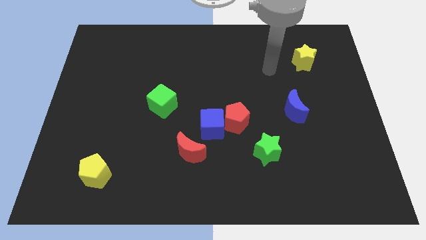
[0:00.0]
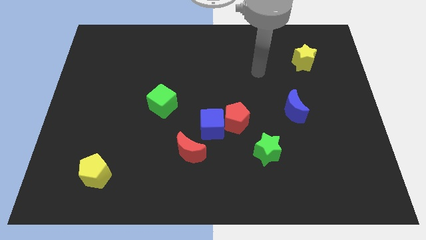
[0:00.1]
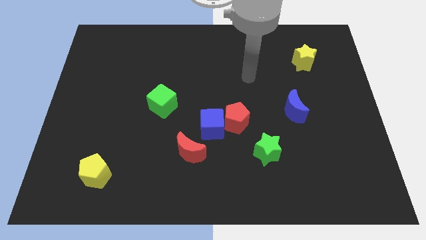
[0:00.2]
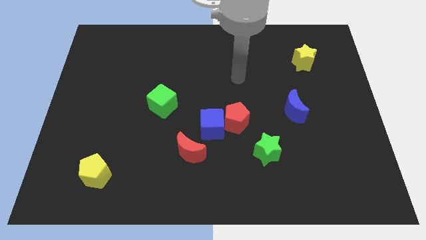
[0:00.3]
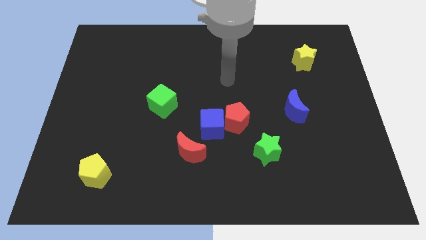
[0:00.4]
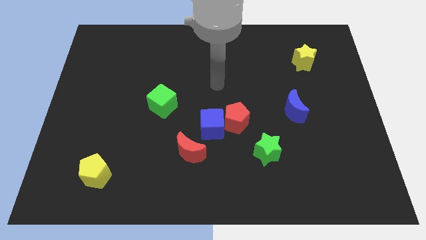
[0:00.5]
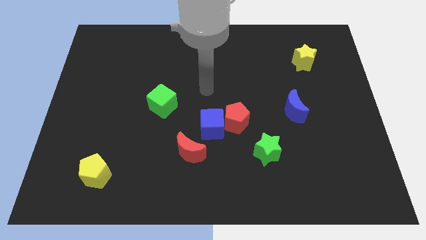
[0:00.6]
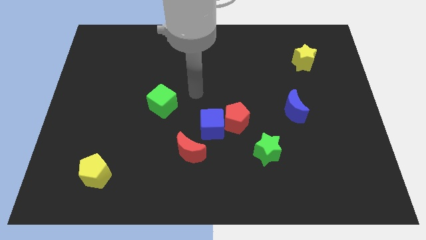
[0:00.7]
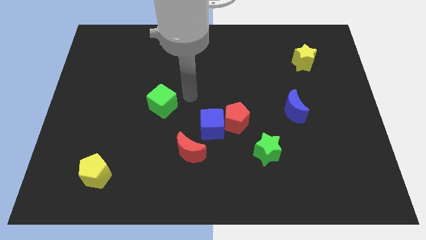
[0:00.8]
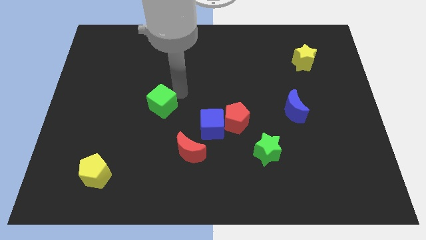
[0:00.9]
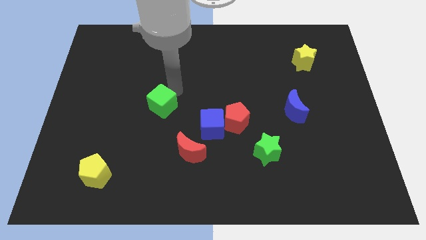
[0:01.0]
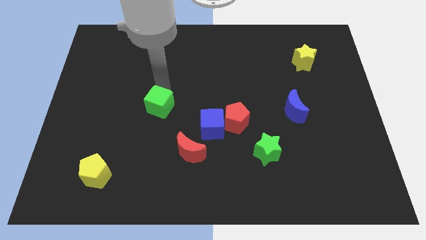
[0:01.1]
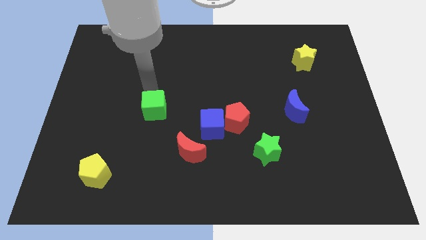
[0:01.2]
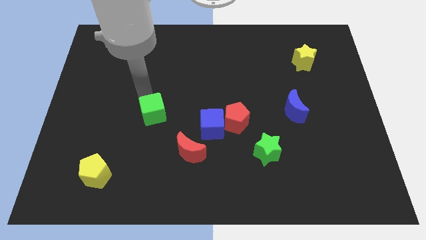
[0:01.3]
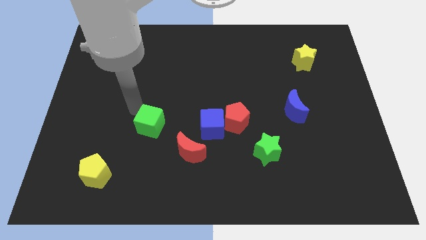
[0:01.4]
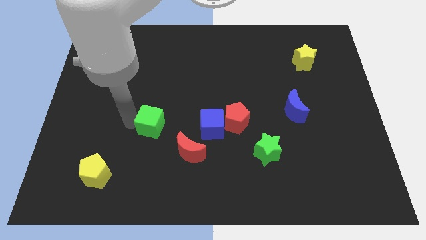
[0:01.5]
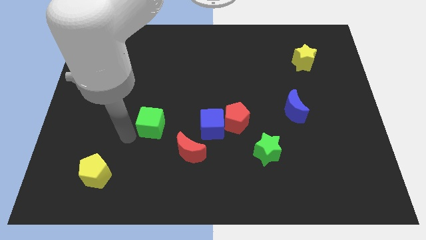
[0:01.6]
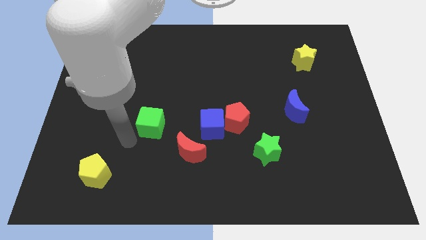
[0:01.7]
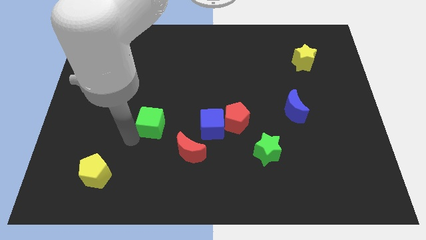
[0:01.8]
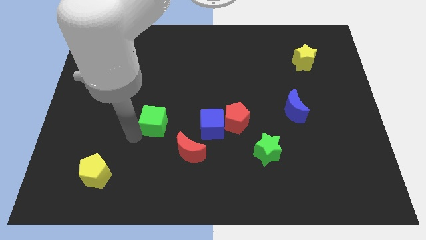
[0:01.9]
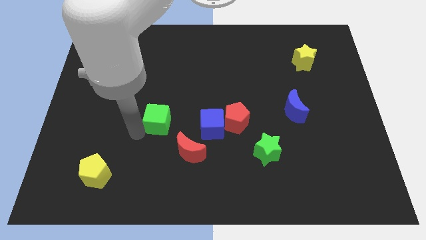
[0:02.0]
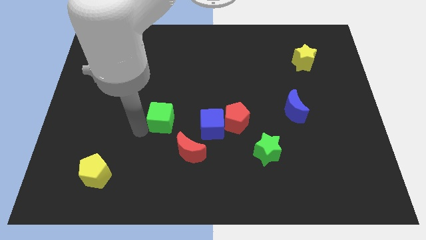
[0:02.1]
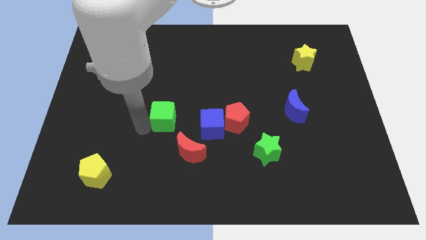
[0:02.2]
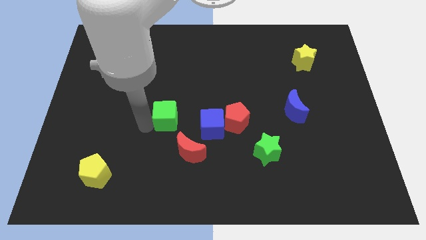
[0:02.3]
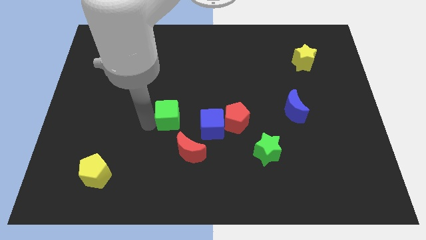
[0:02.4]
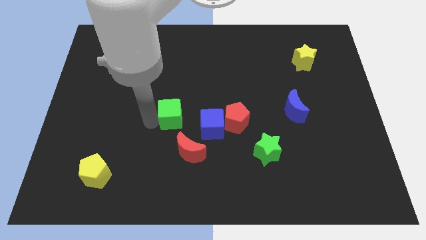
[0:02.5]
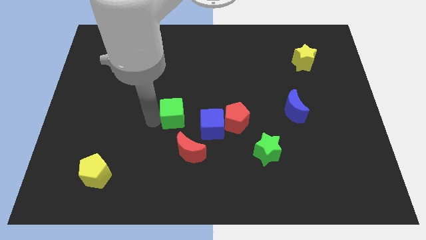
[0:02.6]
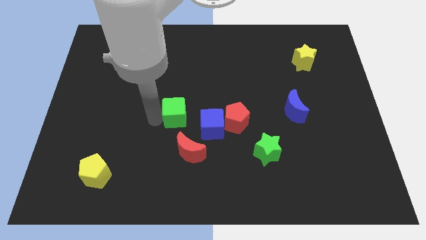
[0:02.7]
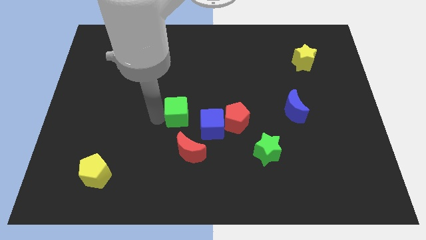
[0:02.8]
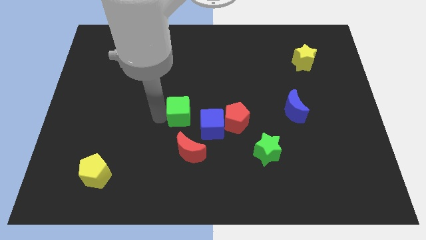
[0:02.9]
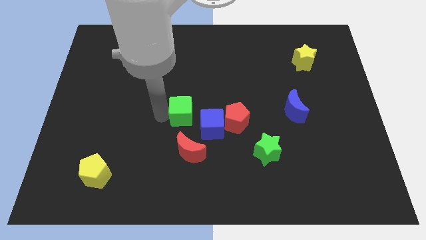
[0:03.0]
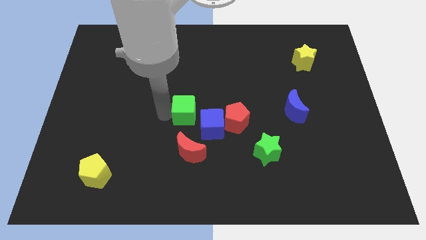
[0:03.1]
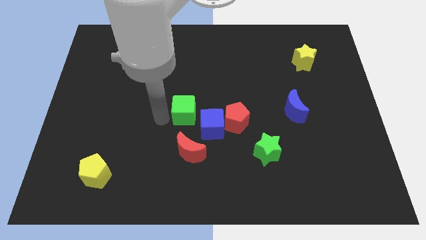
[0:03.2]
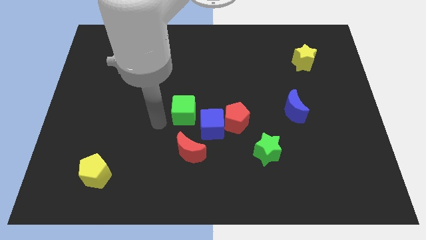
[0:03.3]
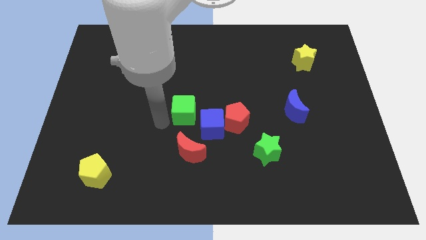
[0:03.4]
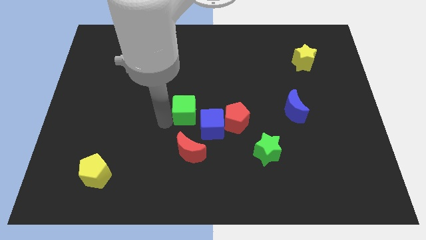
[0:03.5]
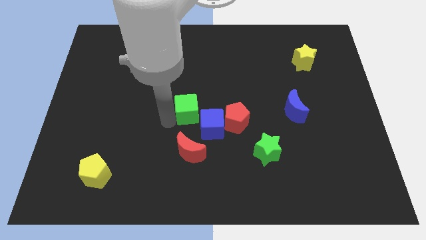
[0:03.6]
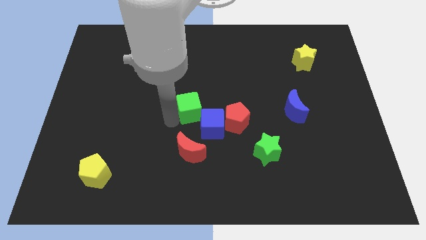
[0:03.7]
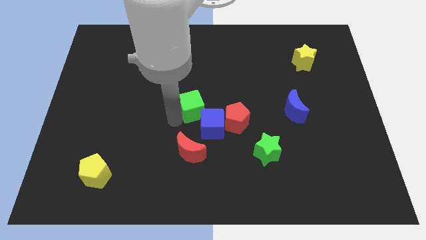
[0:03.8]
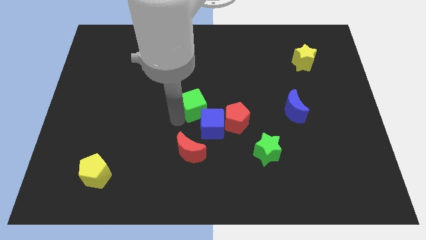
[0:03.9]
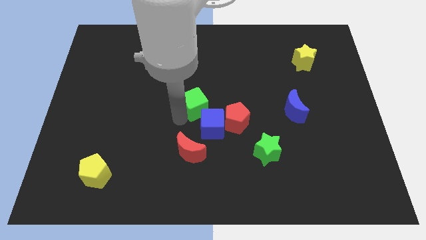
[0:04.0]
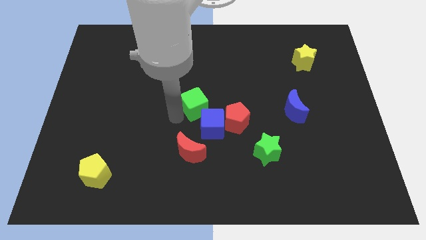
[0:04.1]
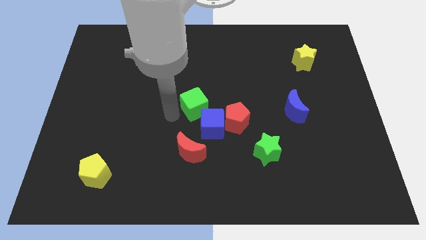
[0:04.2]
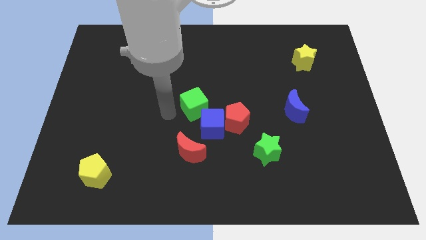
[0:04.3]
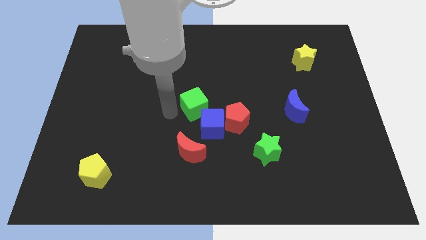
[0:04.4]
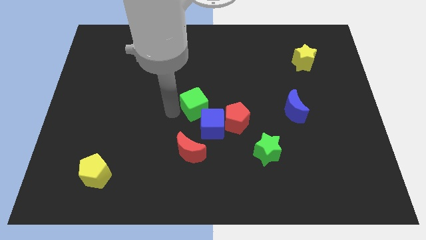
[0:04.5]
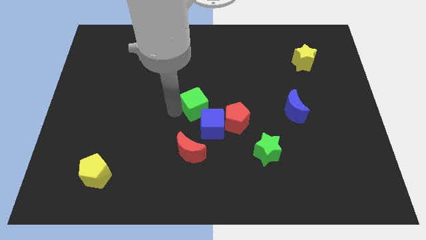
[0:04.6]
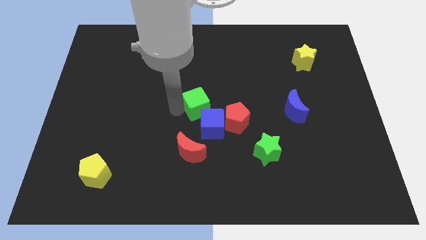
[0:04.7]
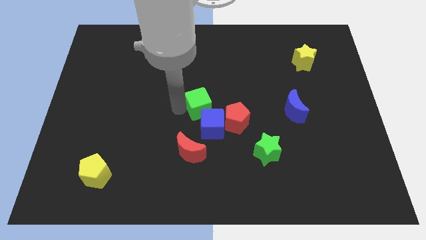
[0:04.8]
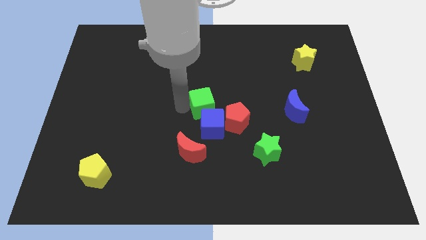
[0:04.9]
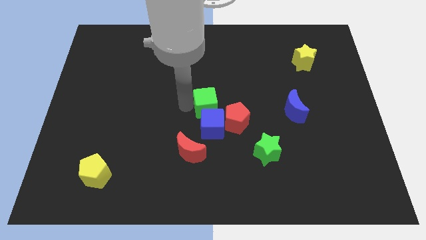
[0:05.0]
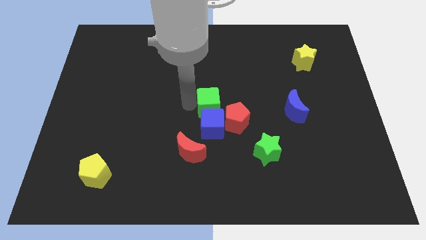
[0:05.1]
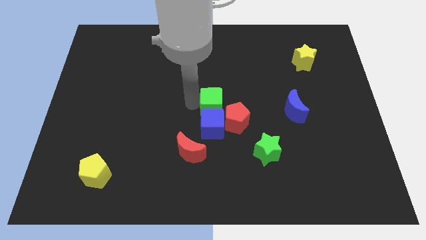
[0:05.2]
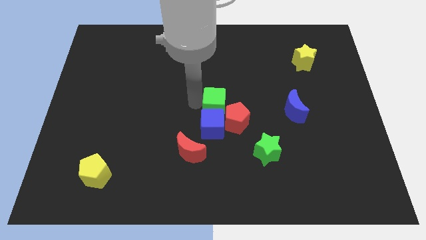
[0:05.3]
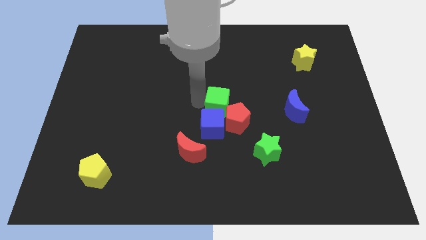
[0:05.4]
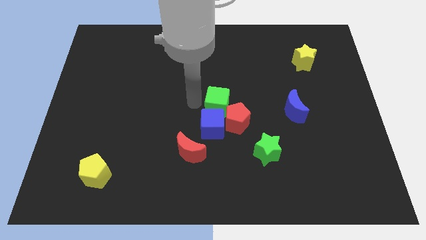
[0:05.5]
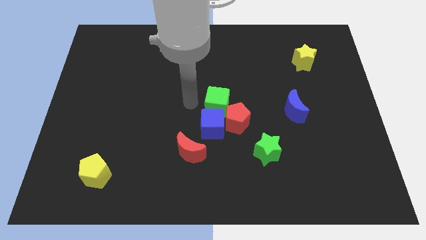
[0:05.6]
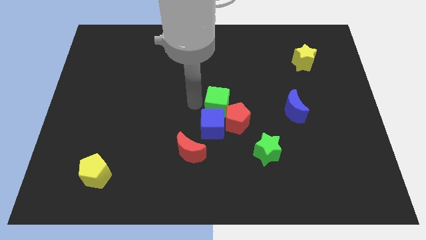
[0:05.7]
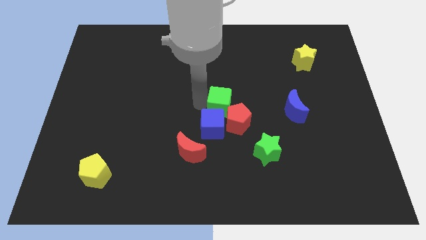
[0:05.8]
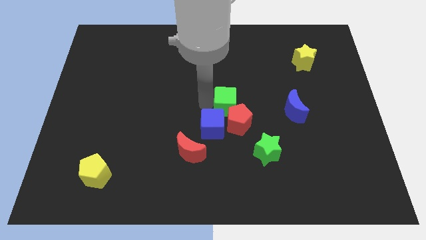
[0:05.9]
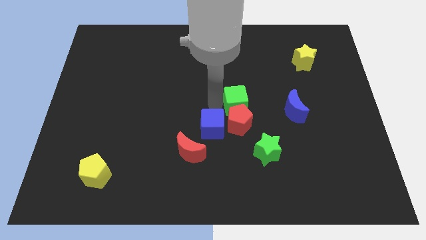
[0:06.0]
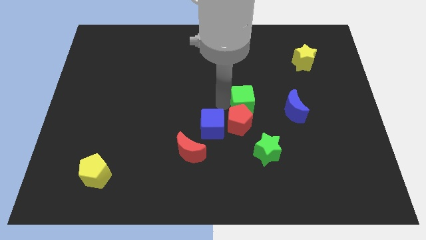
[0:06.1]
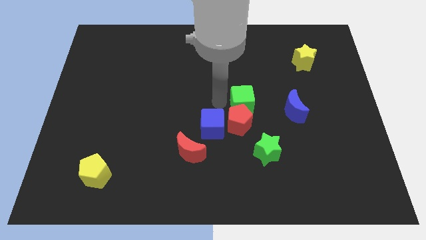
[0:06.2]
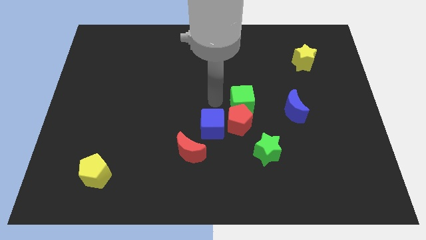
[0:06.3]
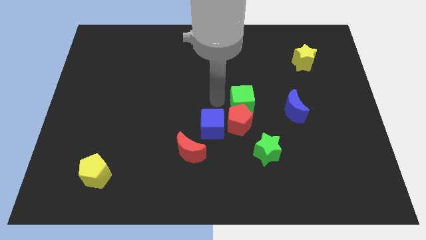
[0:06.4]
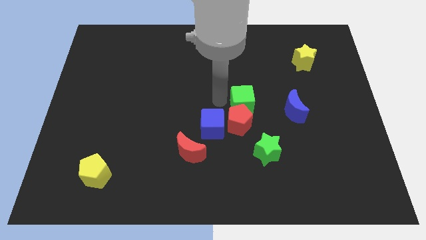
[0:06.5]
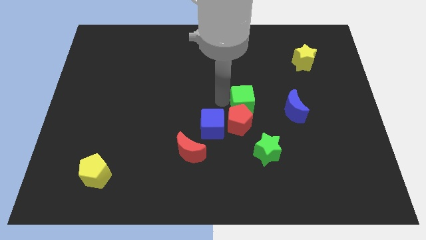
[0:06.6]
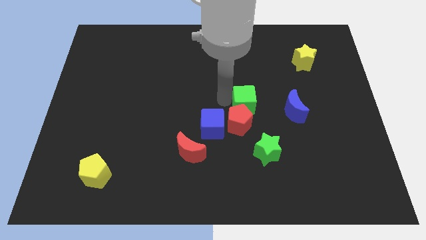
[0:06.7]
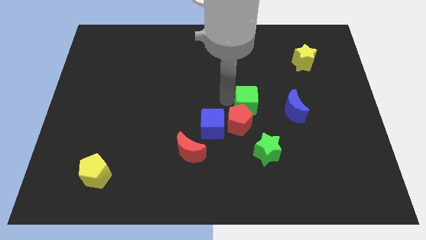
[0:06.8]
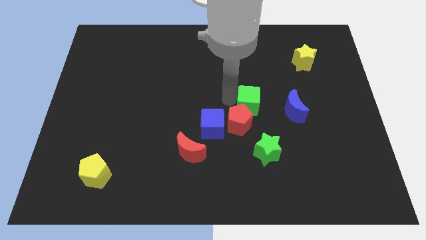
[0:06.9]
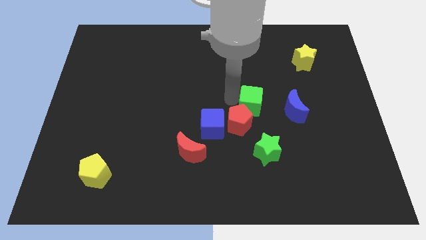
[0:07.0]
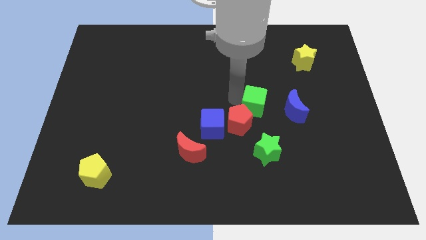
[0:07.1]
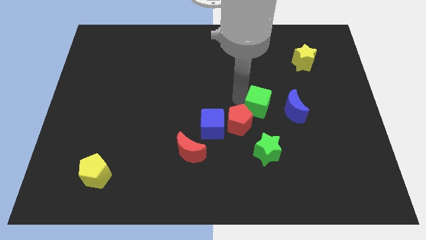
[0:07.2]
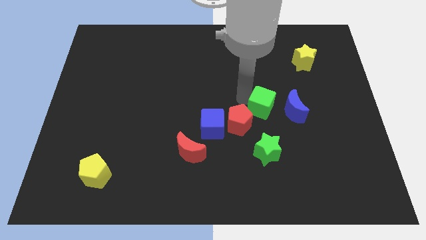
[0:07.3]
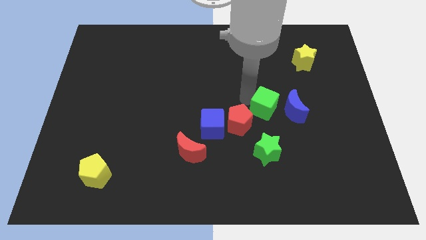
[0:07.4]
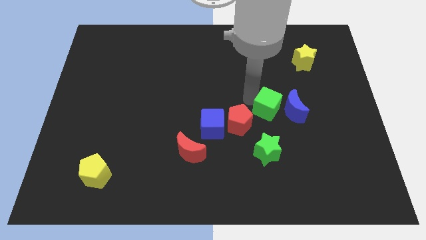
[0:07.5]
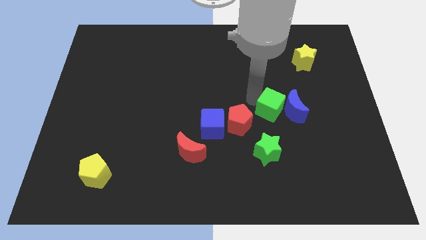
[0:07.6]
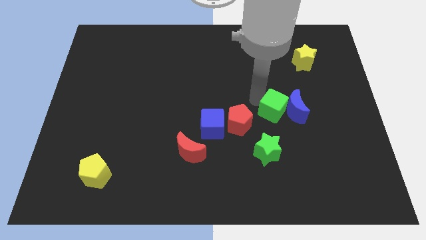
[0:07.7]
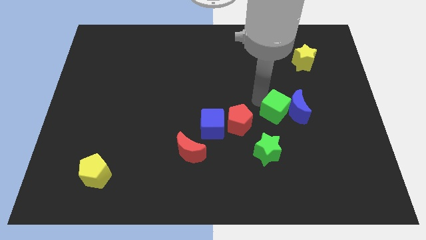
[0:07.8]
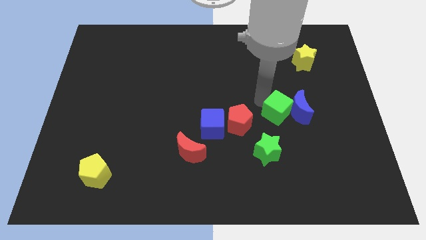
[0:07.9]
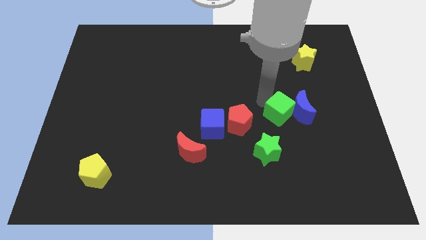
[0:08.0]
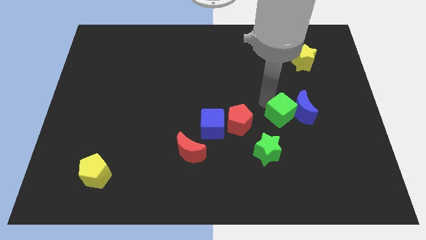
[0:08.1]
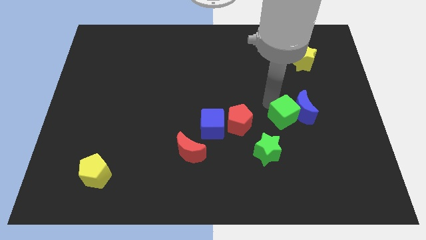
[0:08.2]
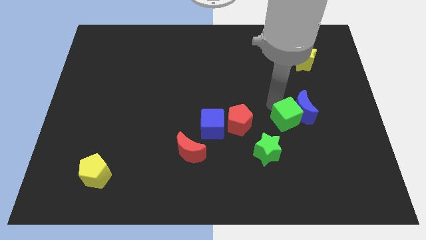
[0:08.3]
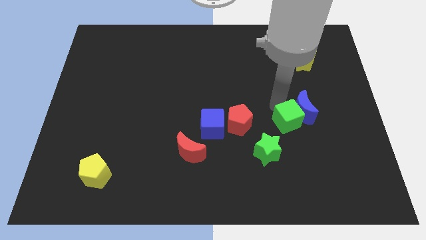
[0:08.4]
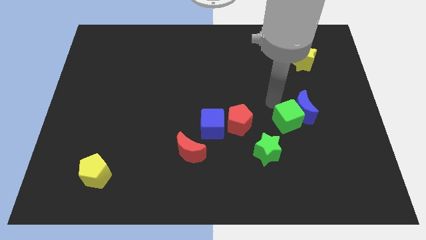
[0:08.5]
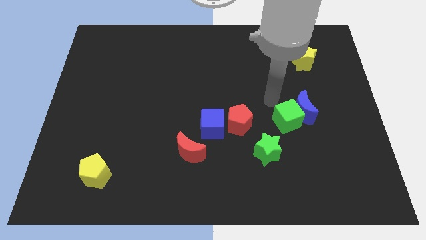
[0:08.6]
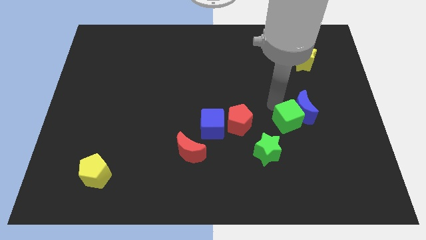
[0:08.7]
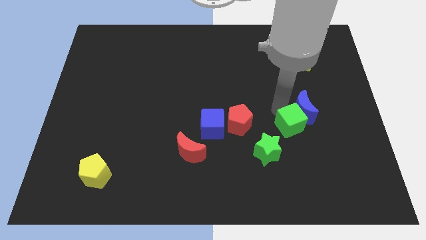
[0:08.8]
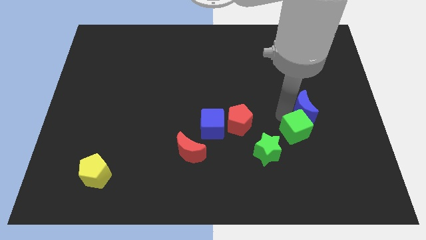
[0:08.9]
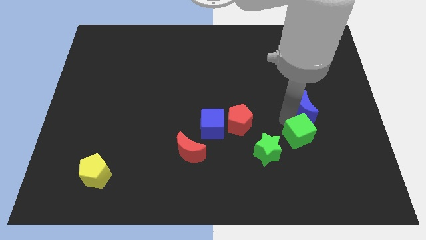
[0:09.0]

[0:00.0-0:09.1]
push the green cube to the right of the green star
